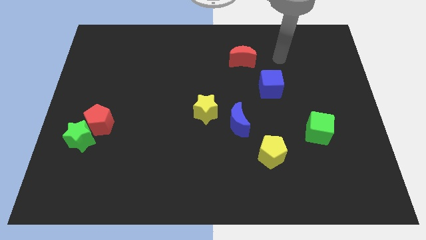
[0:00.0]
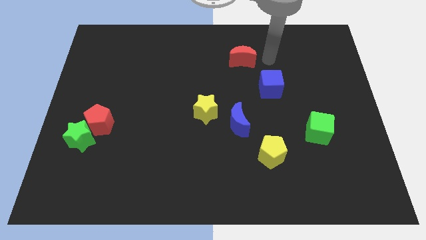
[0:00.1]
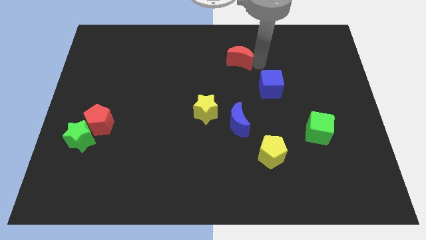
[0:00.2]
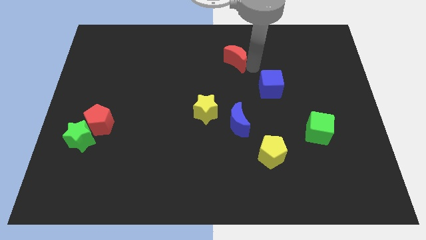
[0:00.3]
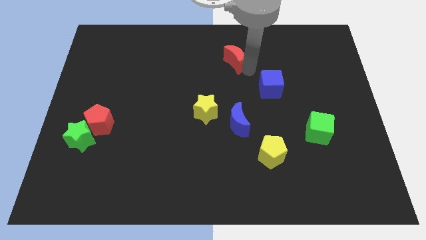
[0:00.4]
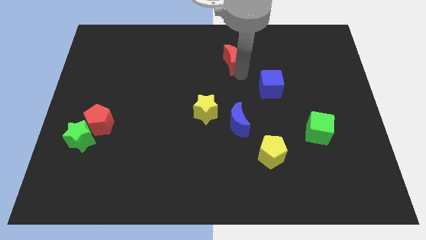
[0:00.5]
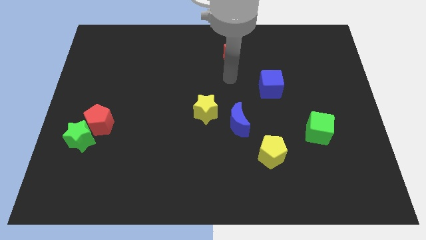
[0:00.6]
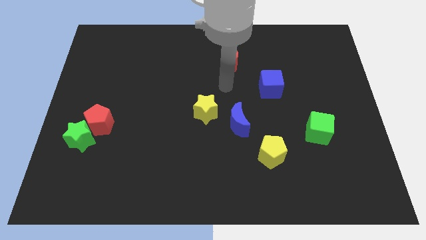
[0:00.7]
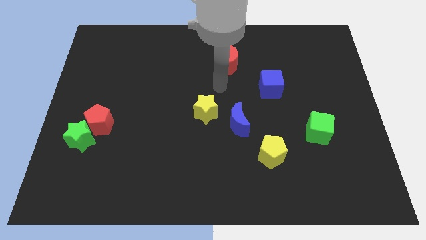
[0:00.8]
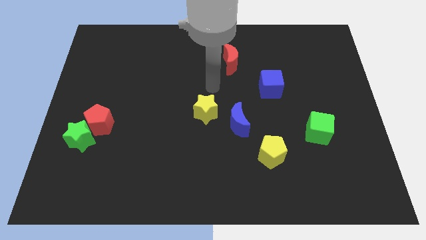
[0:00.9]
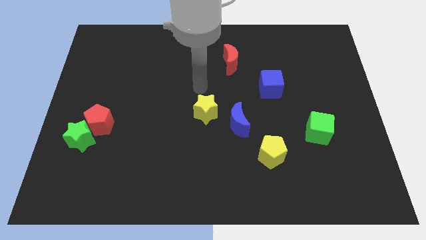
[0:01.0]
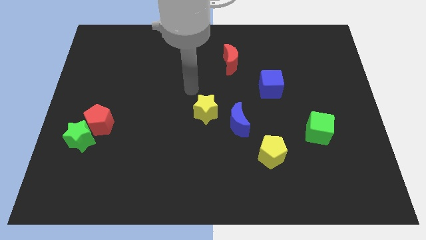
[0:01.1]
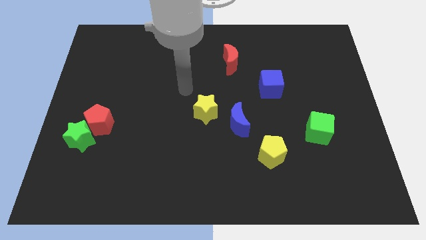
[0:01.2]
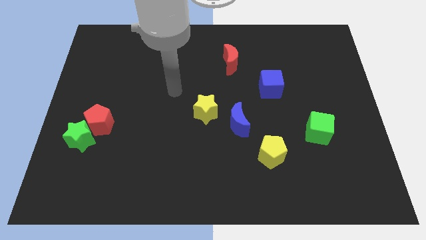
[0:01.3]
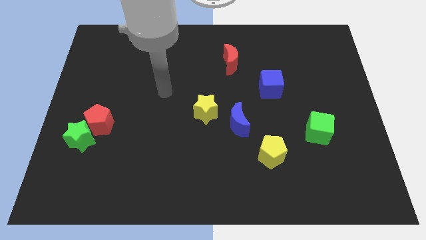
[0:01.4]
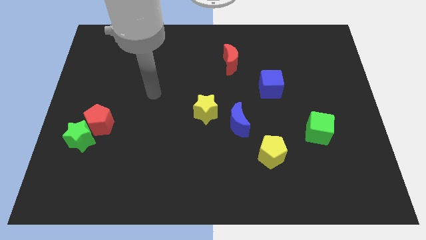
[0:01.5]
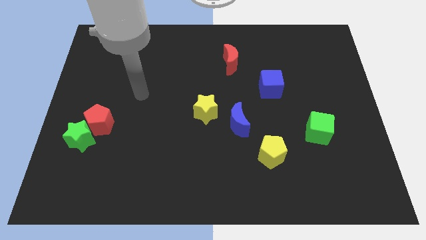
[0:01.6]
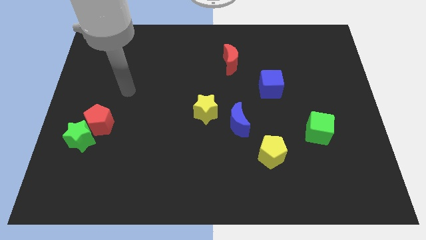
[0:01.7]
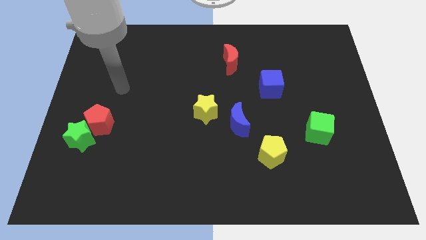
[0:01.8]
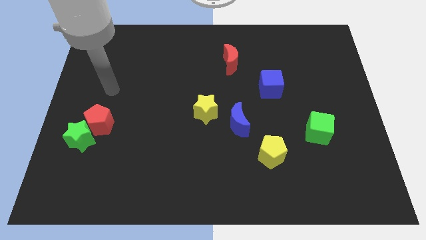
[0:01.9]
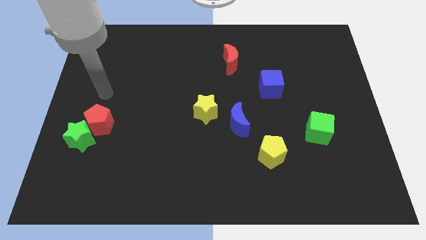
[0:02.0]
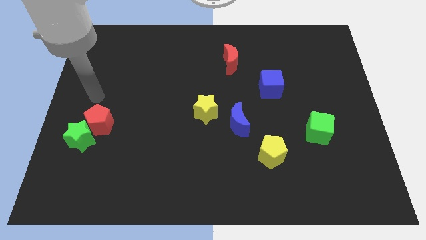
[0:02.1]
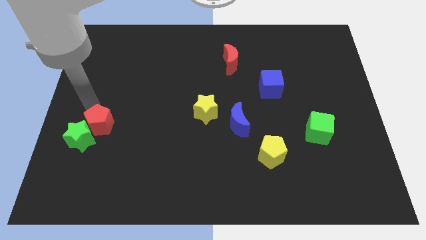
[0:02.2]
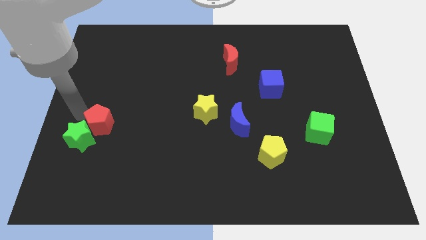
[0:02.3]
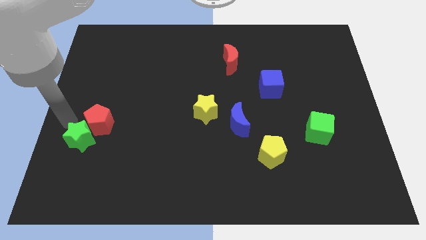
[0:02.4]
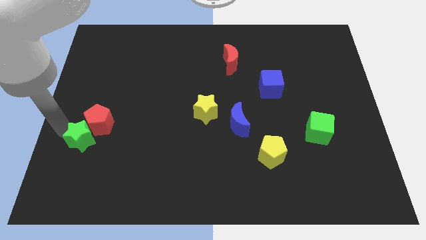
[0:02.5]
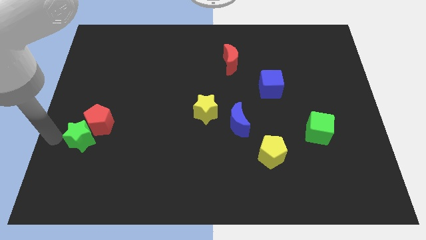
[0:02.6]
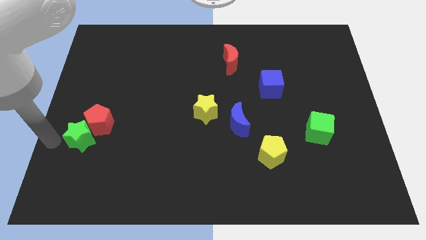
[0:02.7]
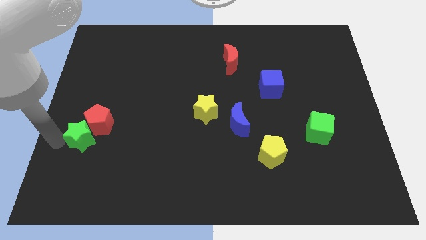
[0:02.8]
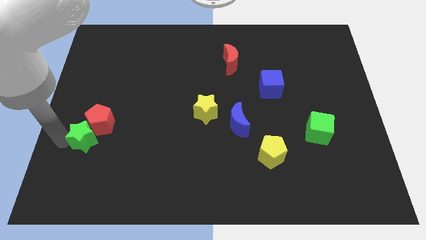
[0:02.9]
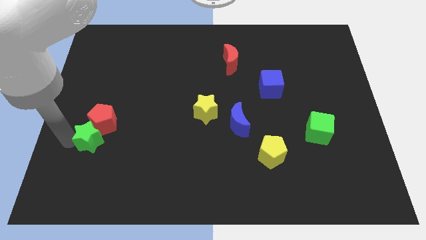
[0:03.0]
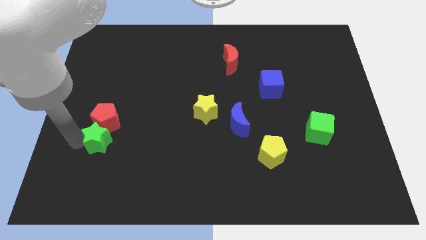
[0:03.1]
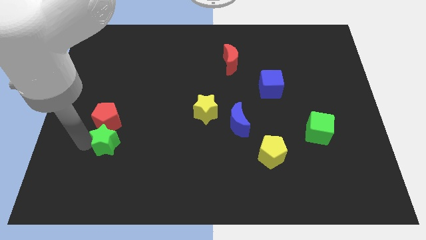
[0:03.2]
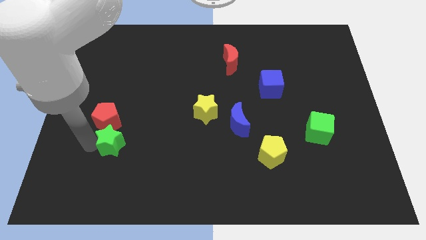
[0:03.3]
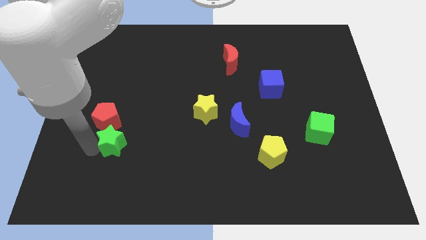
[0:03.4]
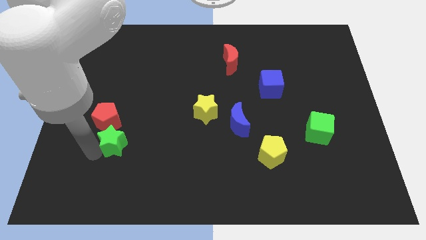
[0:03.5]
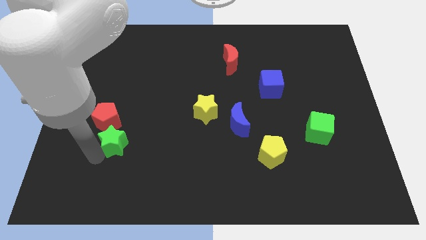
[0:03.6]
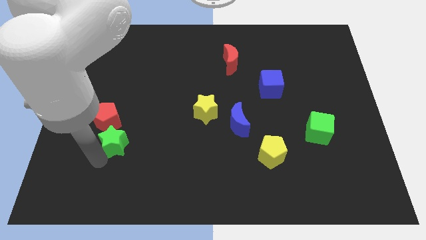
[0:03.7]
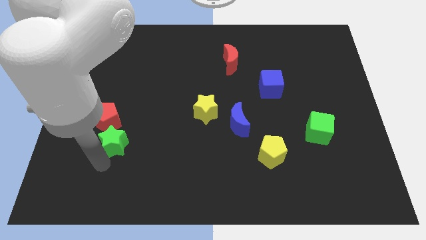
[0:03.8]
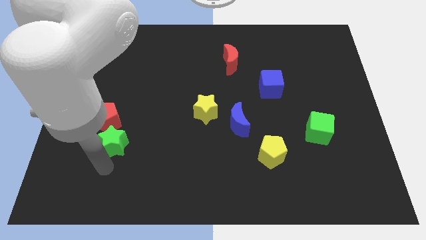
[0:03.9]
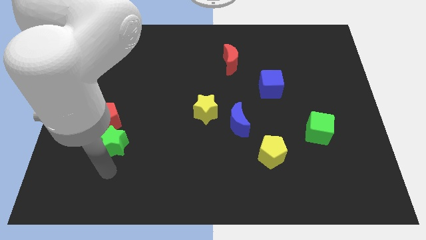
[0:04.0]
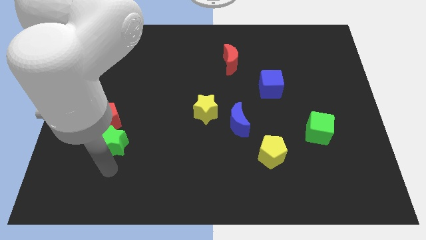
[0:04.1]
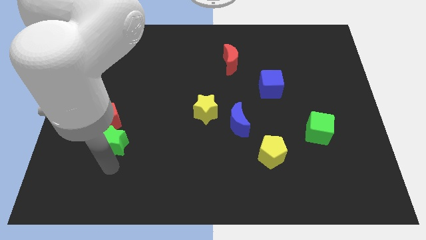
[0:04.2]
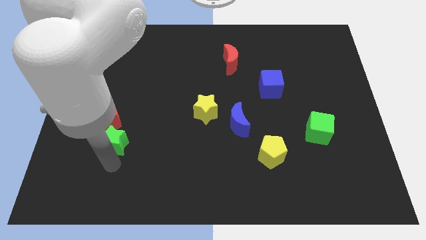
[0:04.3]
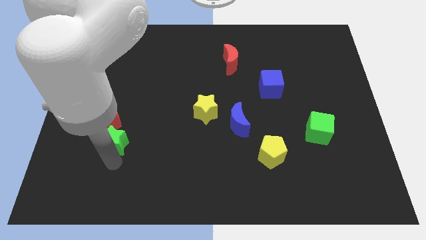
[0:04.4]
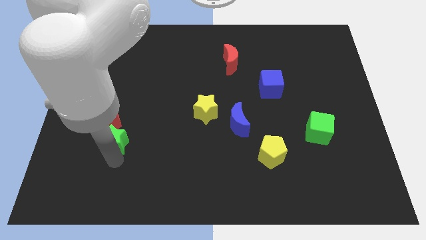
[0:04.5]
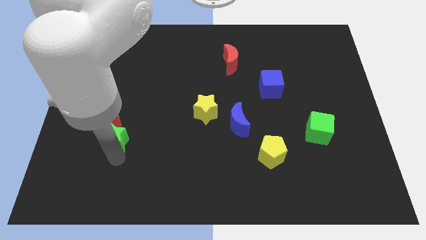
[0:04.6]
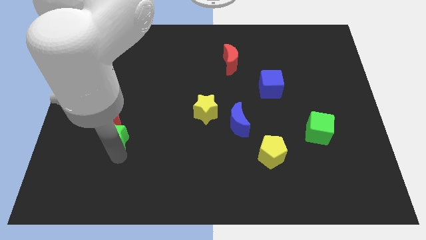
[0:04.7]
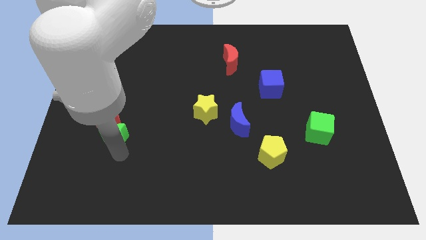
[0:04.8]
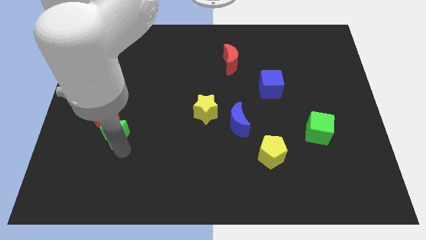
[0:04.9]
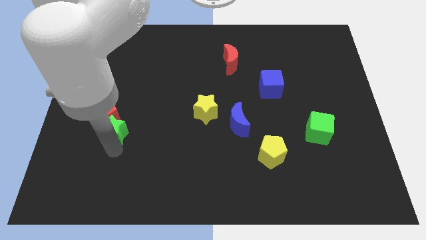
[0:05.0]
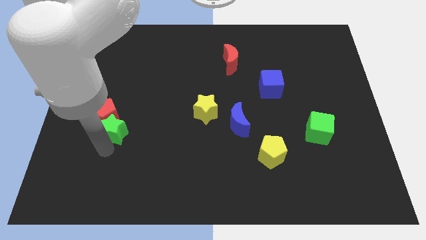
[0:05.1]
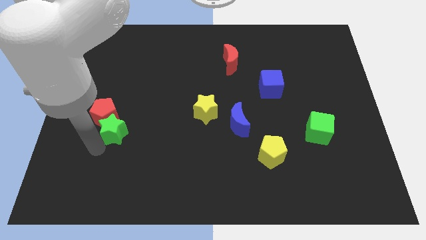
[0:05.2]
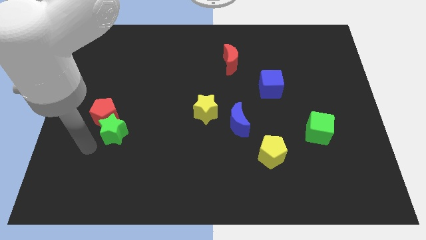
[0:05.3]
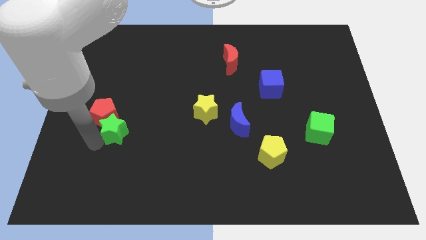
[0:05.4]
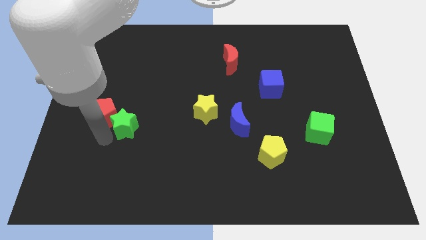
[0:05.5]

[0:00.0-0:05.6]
put the green star just right of the red pentagon

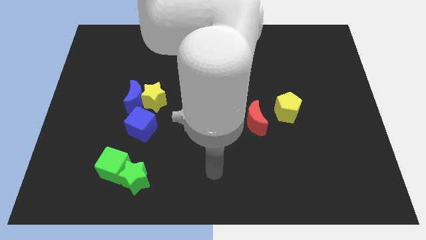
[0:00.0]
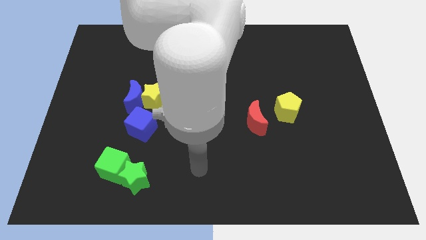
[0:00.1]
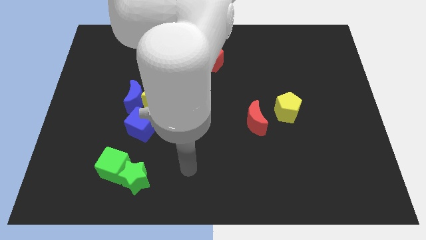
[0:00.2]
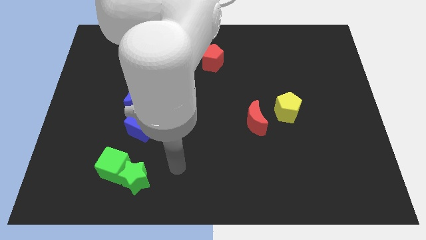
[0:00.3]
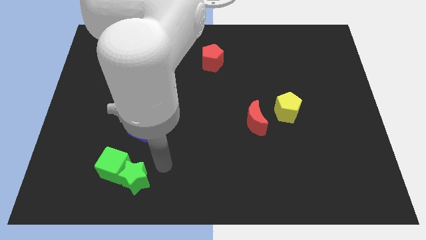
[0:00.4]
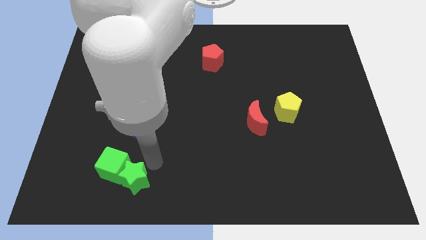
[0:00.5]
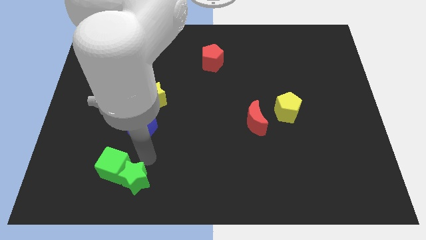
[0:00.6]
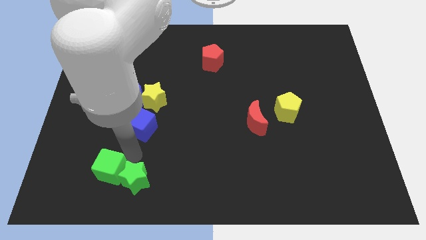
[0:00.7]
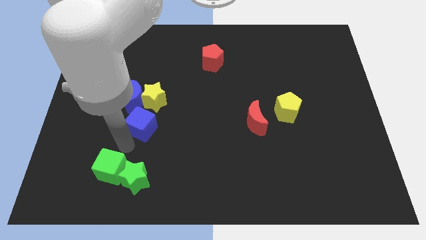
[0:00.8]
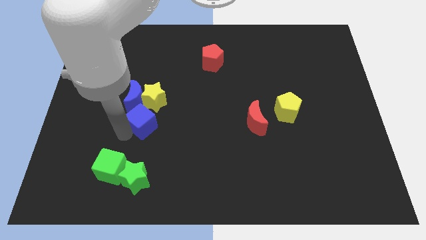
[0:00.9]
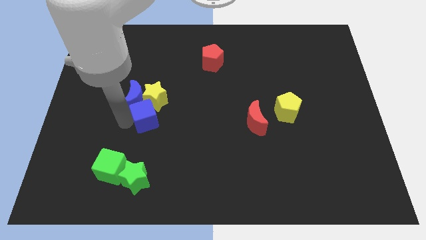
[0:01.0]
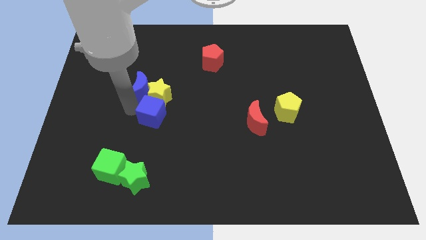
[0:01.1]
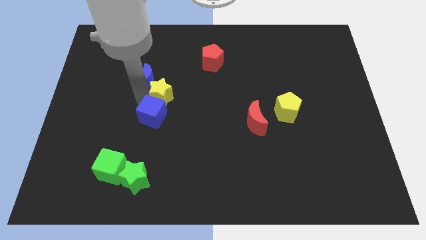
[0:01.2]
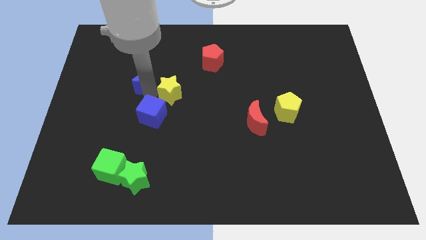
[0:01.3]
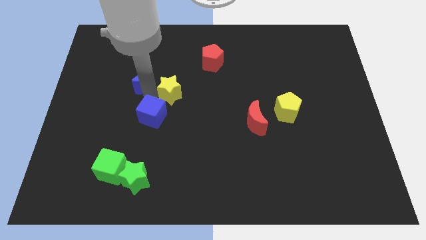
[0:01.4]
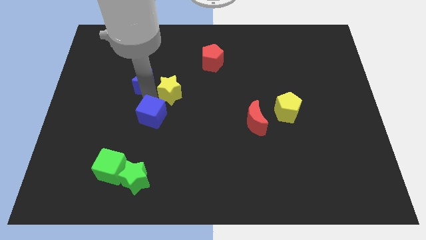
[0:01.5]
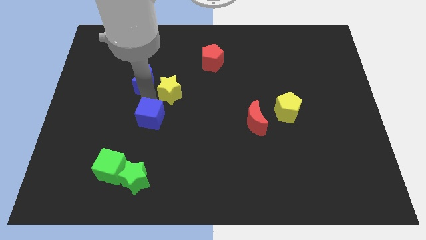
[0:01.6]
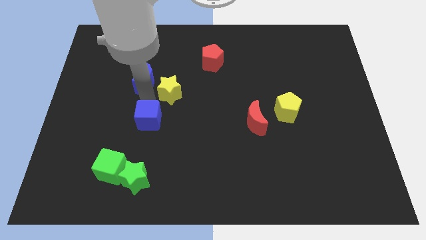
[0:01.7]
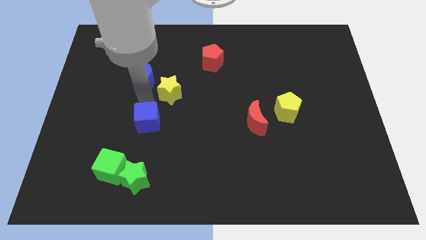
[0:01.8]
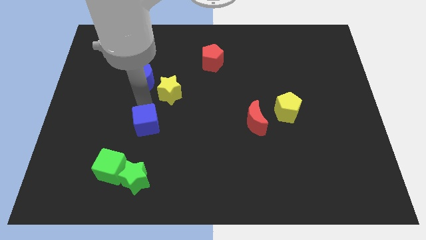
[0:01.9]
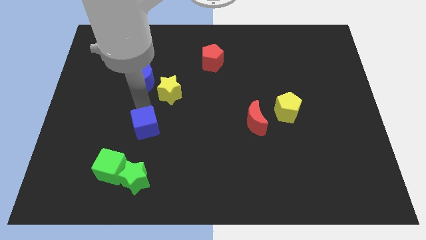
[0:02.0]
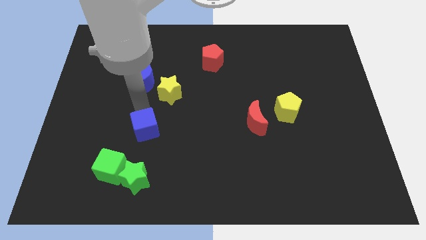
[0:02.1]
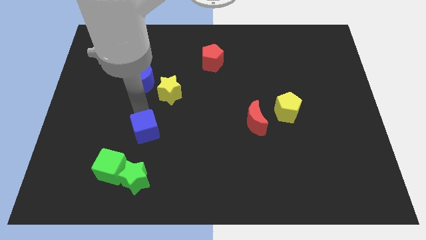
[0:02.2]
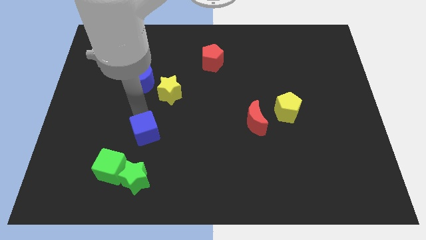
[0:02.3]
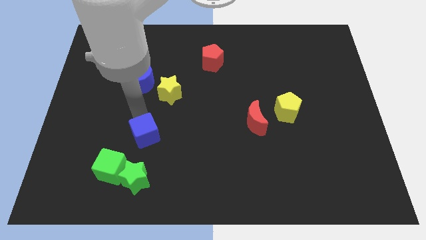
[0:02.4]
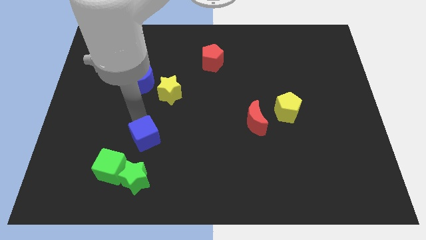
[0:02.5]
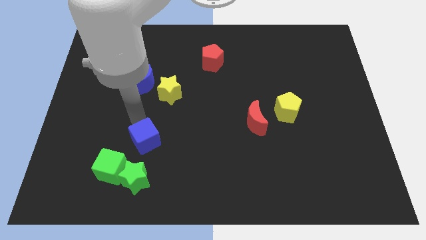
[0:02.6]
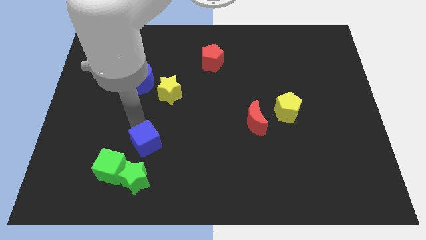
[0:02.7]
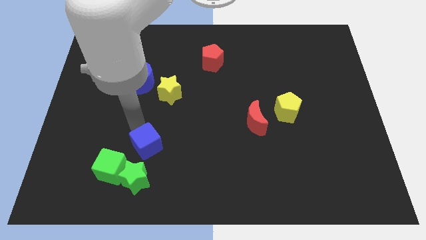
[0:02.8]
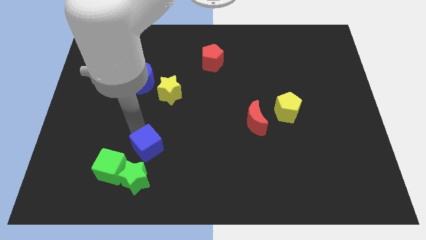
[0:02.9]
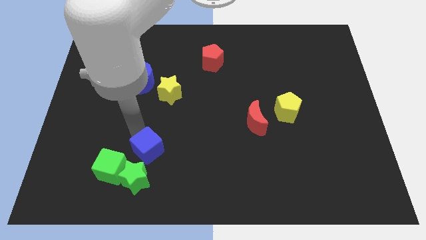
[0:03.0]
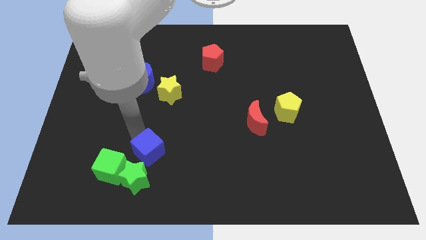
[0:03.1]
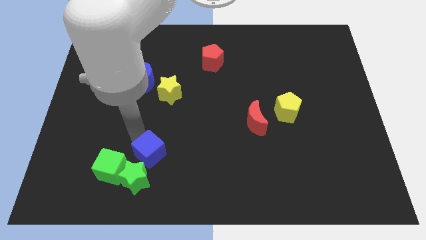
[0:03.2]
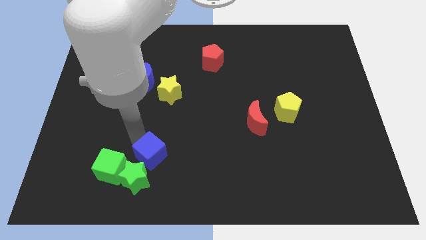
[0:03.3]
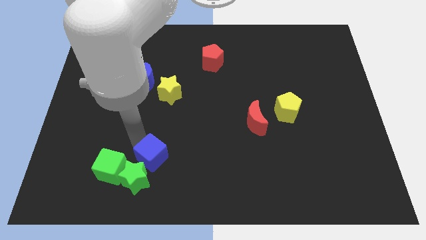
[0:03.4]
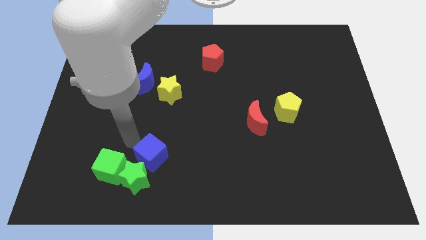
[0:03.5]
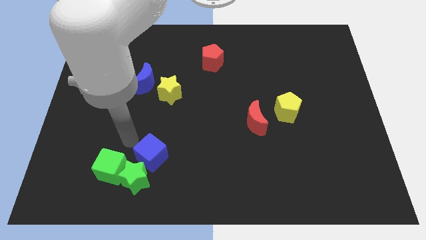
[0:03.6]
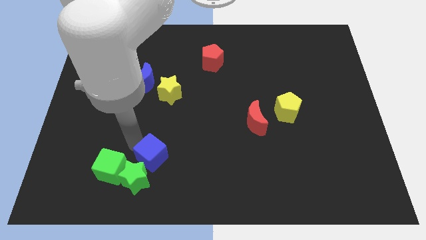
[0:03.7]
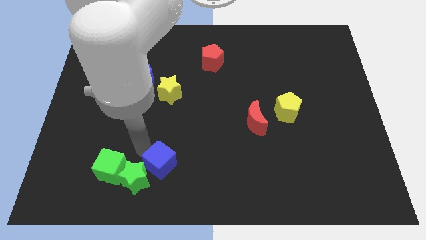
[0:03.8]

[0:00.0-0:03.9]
move the blue cube just right of the green star
